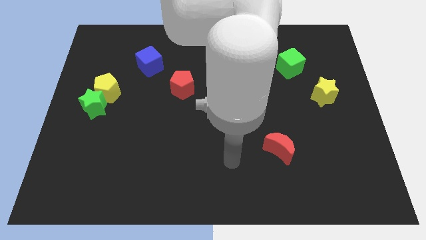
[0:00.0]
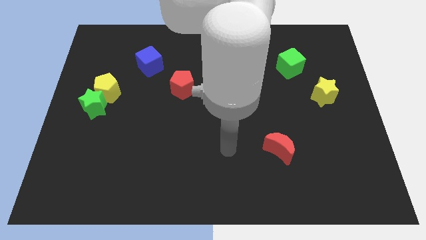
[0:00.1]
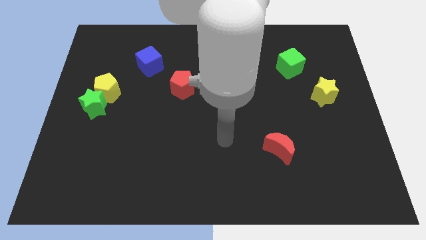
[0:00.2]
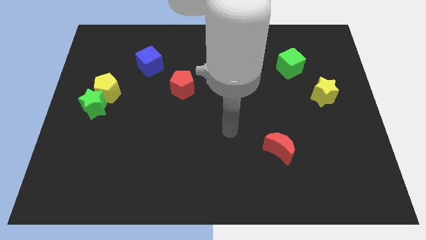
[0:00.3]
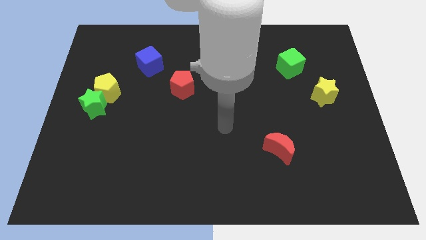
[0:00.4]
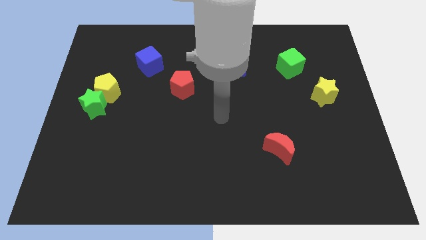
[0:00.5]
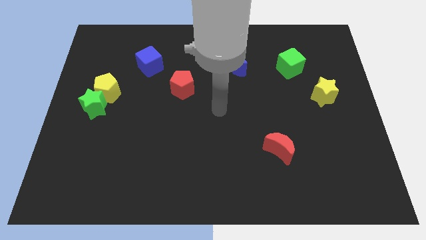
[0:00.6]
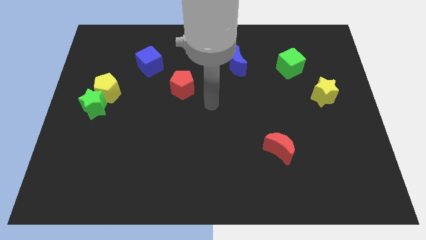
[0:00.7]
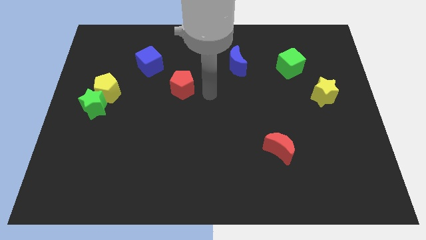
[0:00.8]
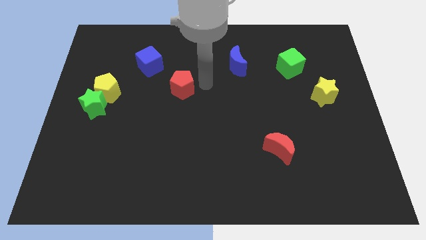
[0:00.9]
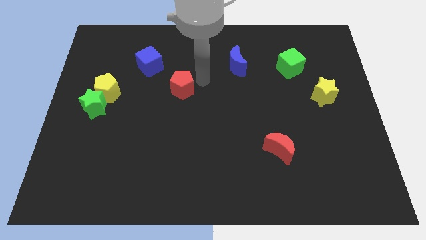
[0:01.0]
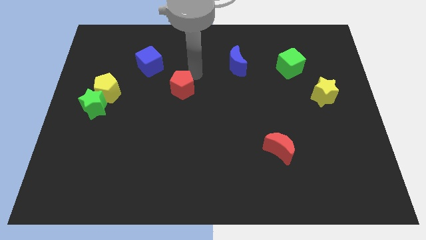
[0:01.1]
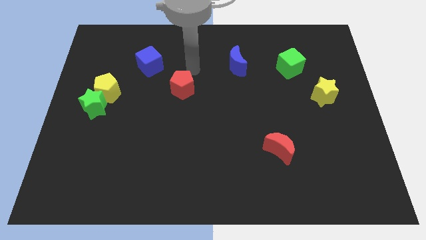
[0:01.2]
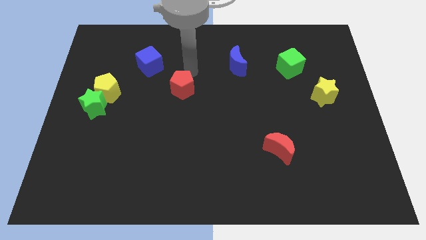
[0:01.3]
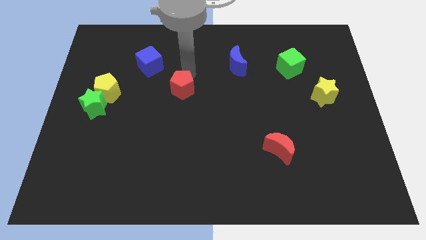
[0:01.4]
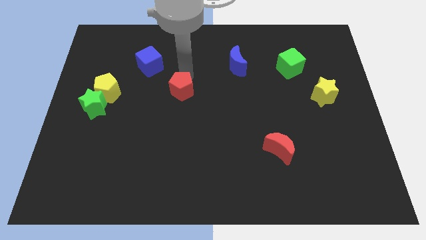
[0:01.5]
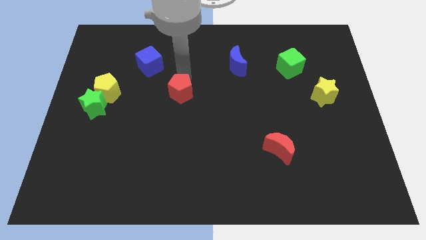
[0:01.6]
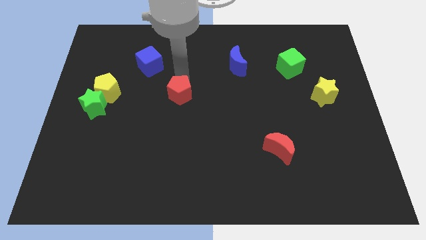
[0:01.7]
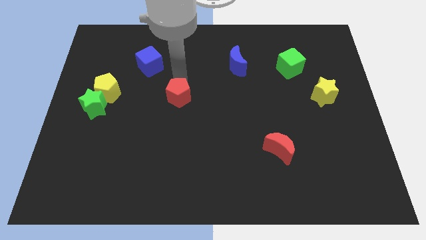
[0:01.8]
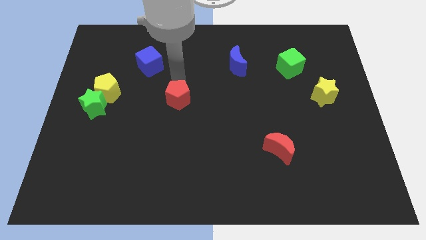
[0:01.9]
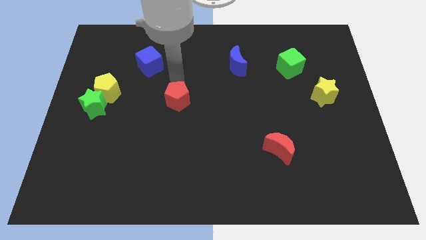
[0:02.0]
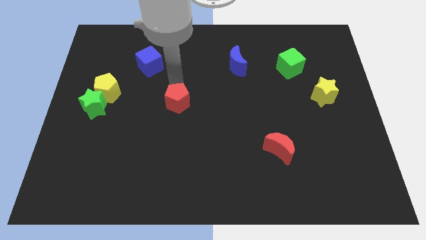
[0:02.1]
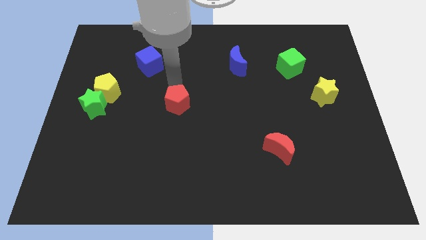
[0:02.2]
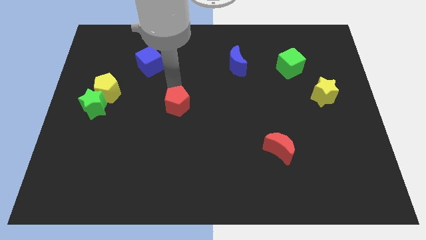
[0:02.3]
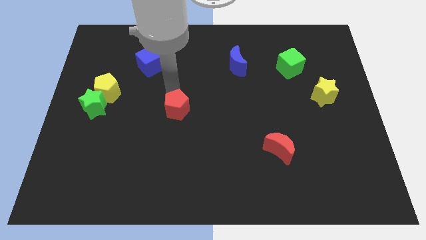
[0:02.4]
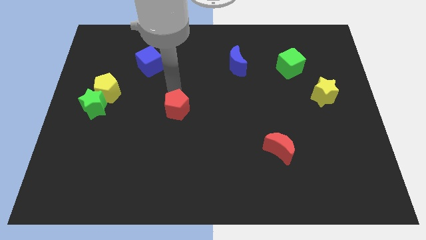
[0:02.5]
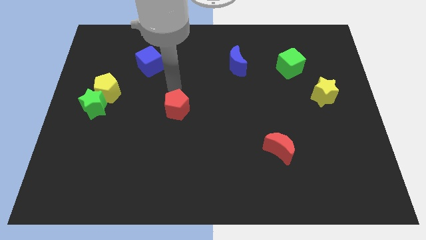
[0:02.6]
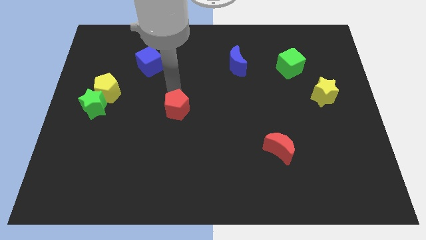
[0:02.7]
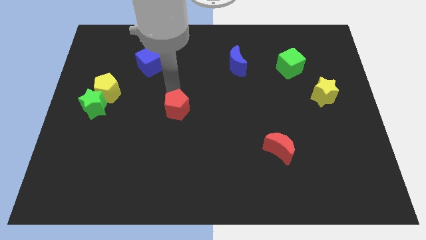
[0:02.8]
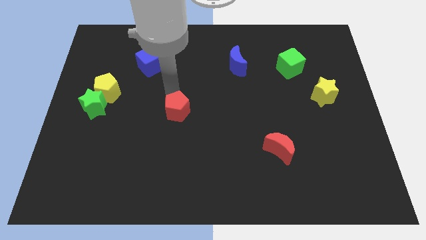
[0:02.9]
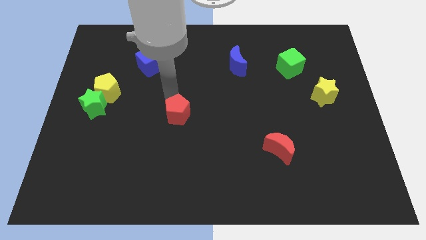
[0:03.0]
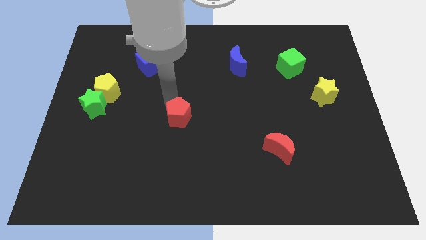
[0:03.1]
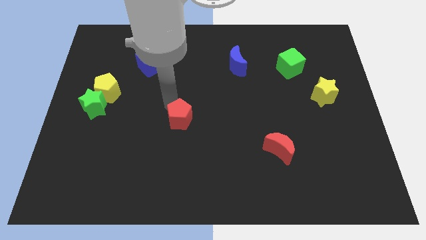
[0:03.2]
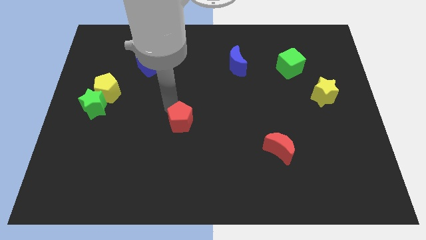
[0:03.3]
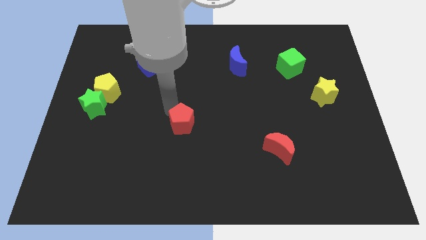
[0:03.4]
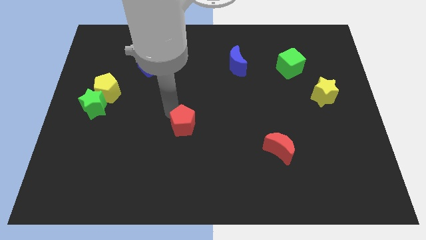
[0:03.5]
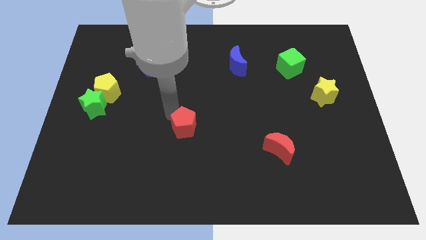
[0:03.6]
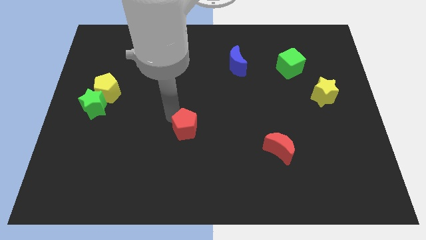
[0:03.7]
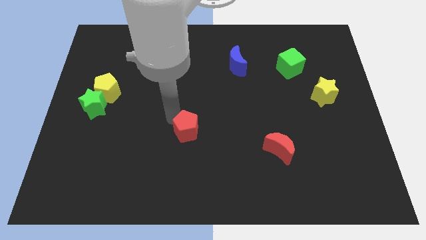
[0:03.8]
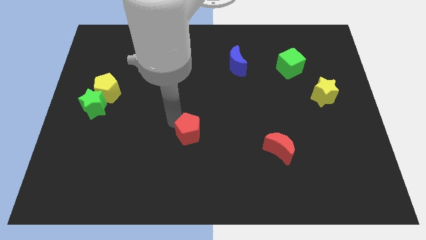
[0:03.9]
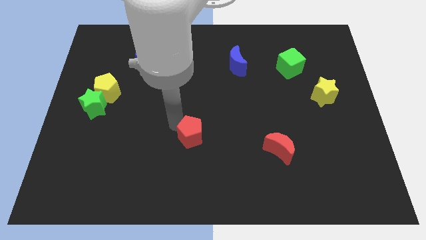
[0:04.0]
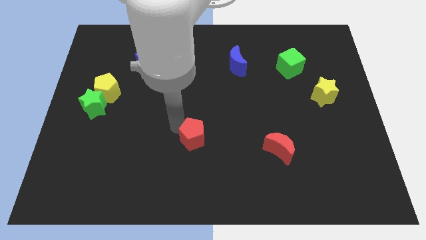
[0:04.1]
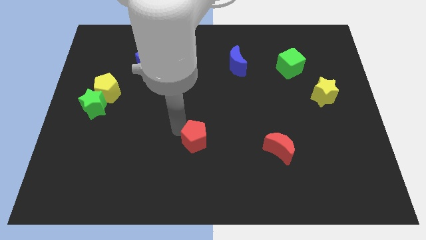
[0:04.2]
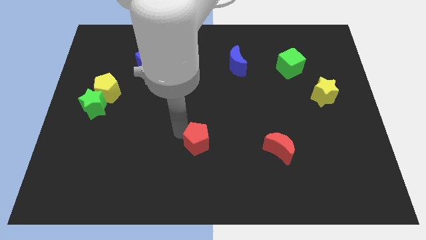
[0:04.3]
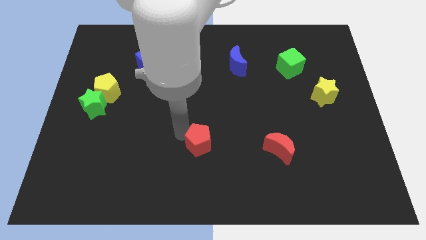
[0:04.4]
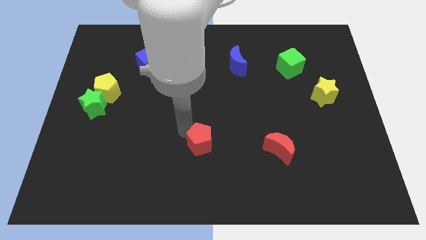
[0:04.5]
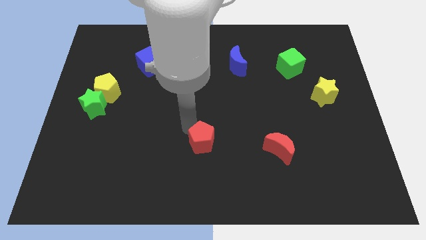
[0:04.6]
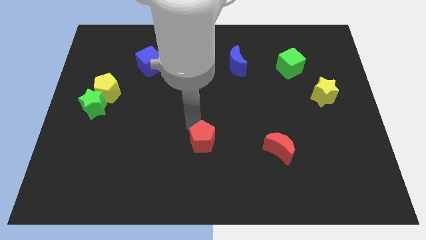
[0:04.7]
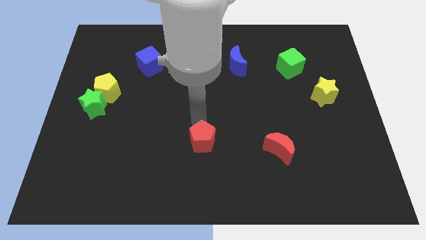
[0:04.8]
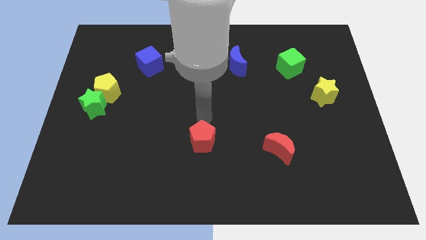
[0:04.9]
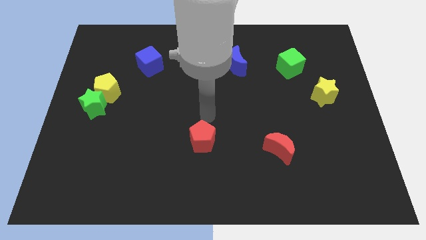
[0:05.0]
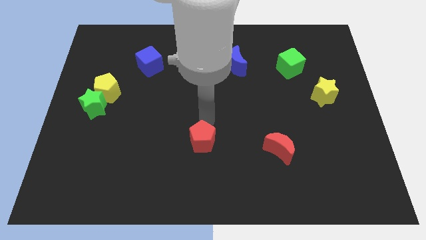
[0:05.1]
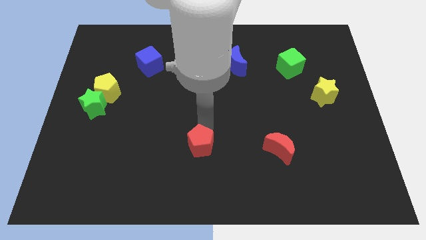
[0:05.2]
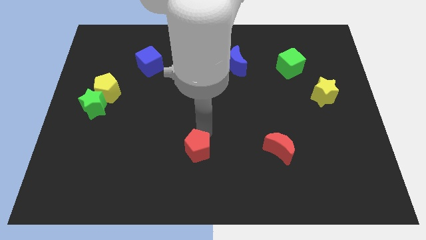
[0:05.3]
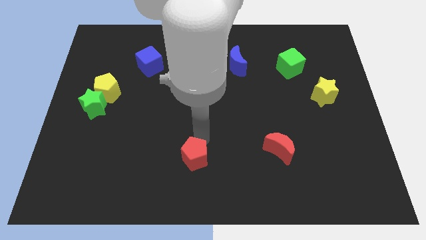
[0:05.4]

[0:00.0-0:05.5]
move the red pentagon to the bottom

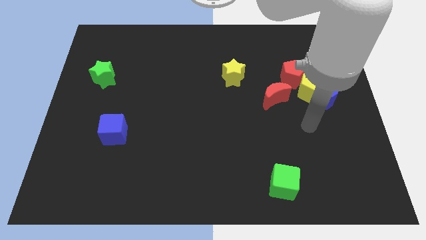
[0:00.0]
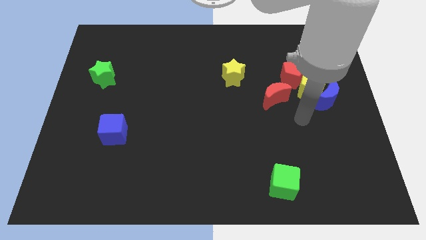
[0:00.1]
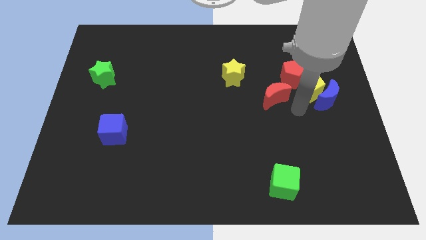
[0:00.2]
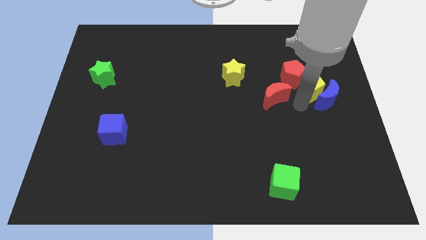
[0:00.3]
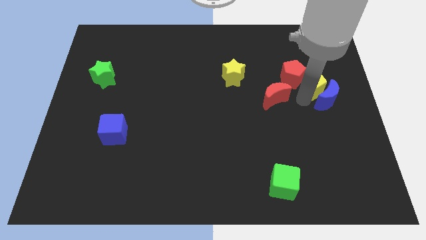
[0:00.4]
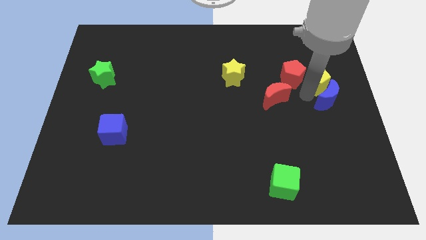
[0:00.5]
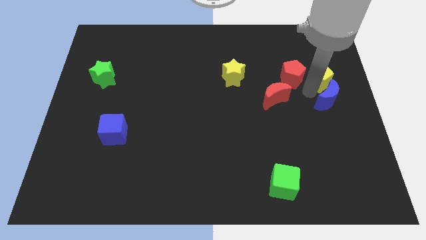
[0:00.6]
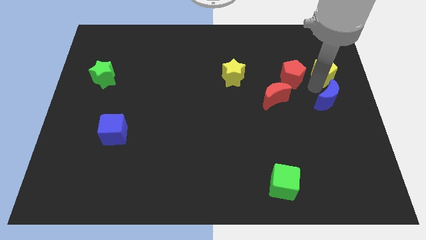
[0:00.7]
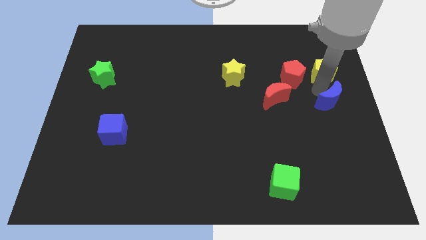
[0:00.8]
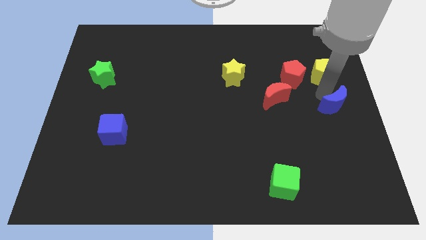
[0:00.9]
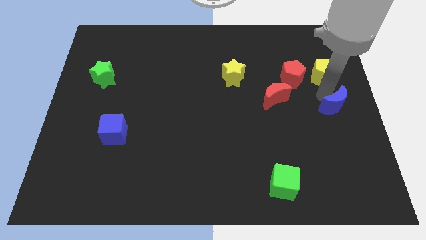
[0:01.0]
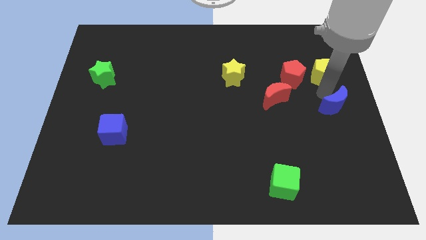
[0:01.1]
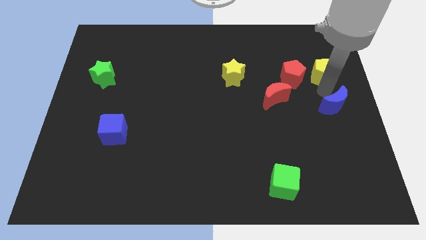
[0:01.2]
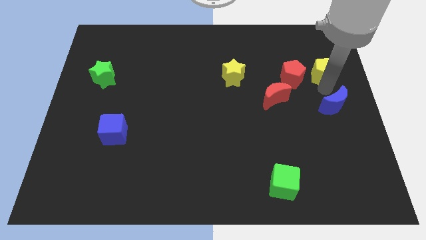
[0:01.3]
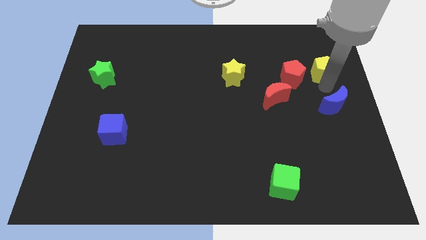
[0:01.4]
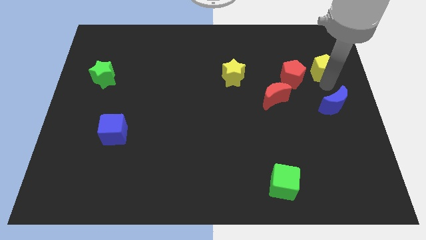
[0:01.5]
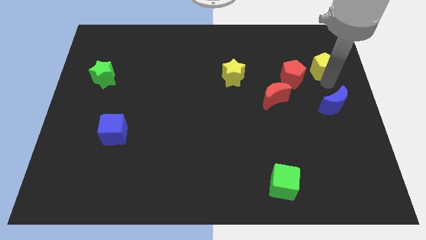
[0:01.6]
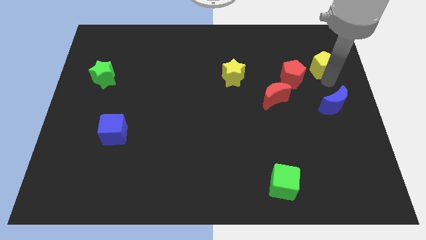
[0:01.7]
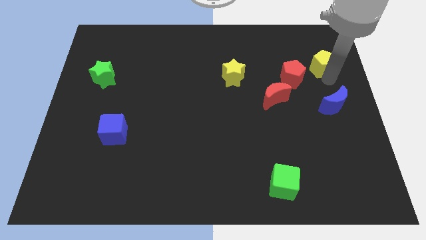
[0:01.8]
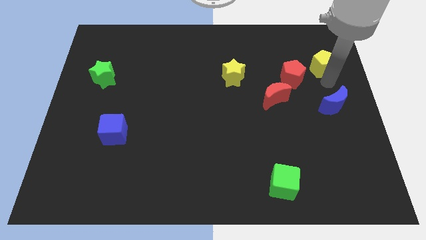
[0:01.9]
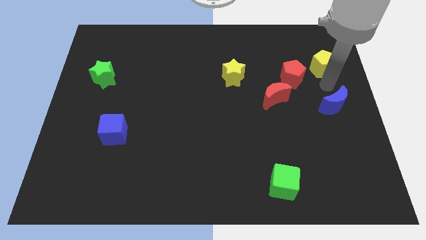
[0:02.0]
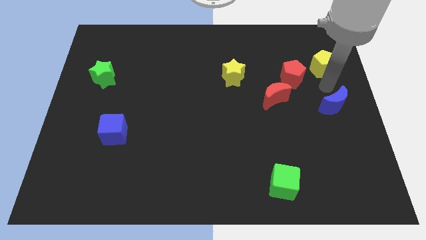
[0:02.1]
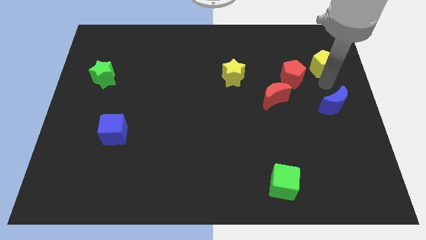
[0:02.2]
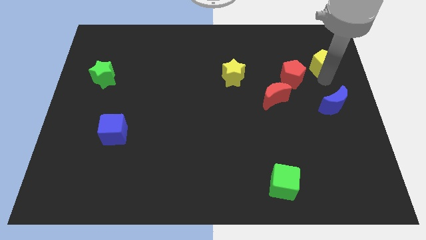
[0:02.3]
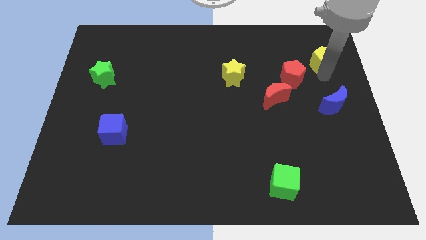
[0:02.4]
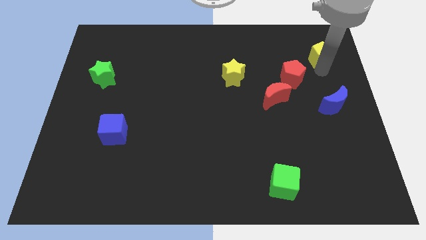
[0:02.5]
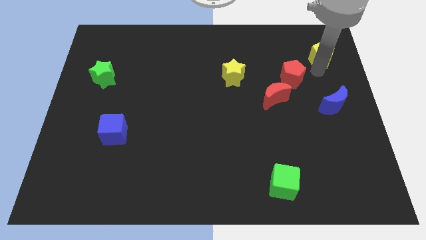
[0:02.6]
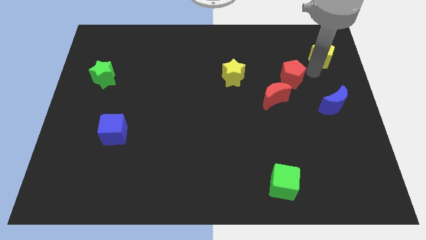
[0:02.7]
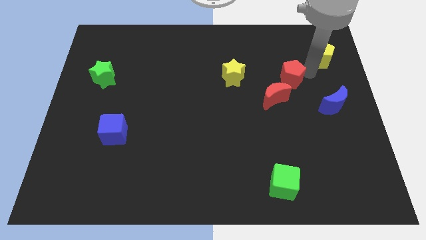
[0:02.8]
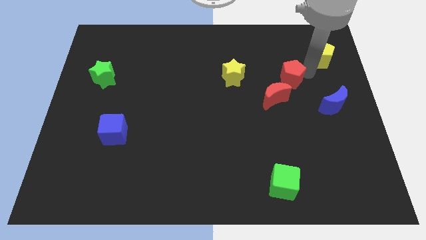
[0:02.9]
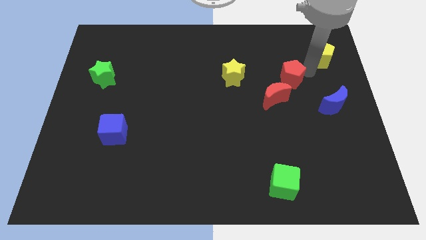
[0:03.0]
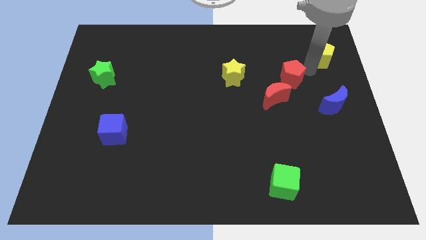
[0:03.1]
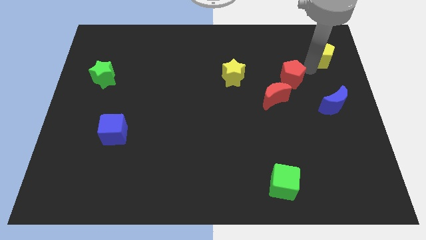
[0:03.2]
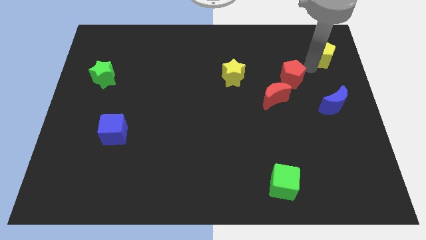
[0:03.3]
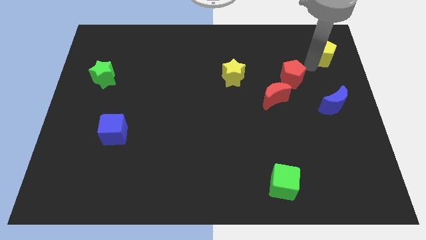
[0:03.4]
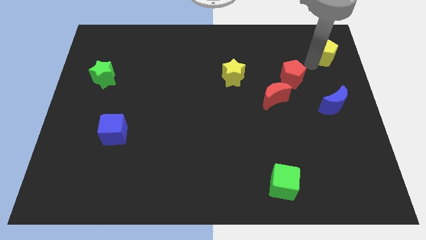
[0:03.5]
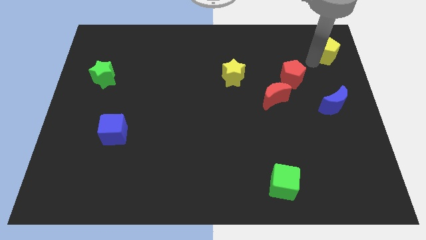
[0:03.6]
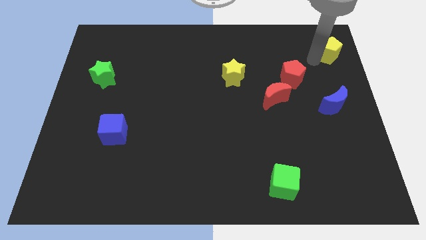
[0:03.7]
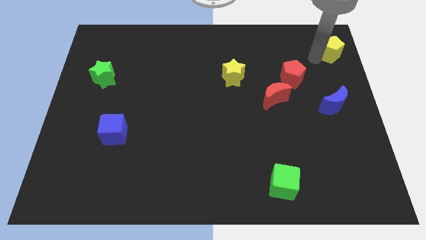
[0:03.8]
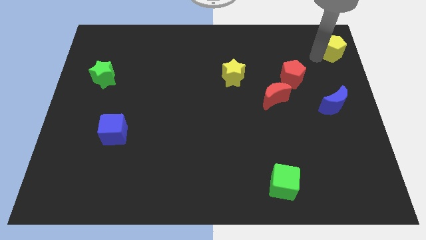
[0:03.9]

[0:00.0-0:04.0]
put the yellow pentagon to the upper right corner
